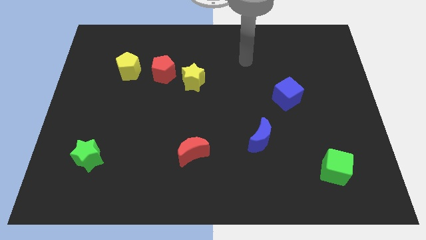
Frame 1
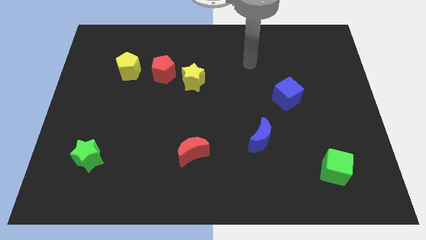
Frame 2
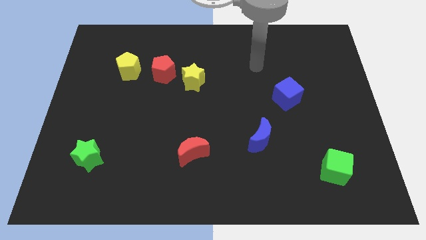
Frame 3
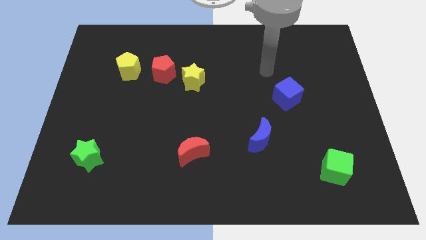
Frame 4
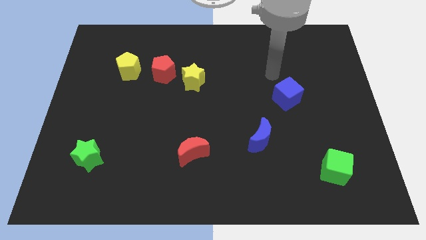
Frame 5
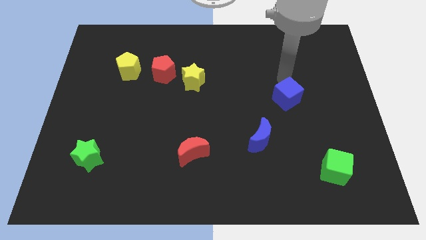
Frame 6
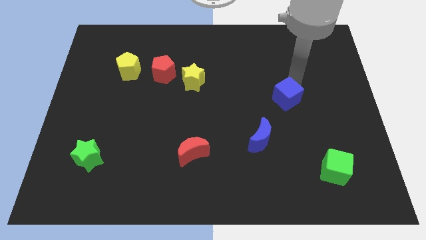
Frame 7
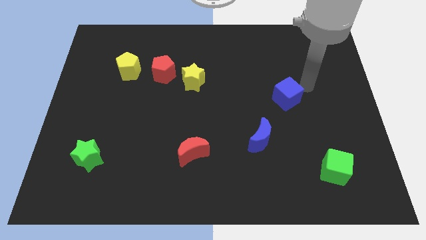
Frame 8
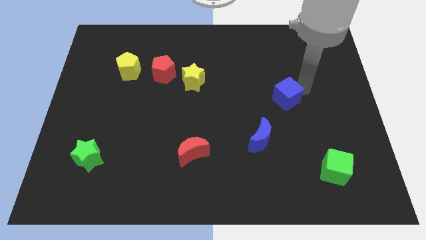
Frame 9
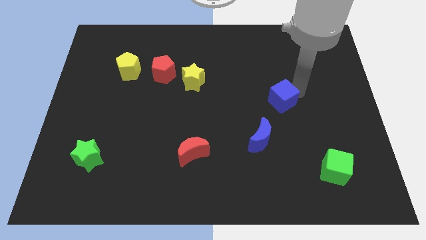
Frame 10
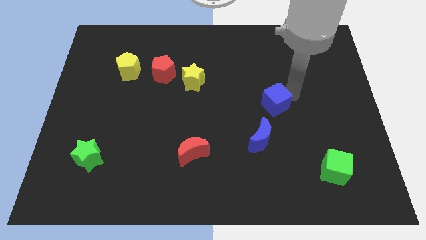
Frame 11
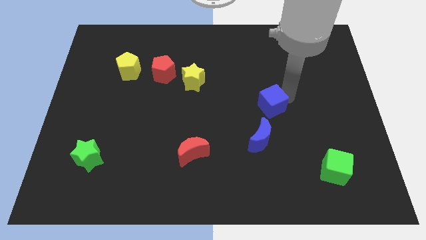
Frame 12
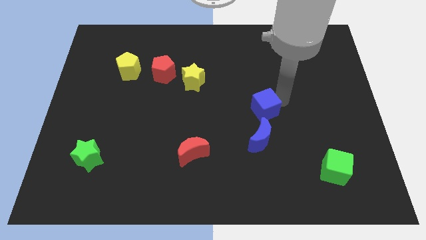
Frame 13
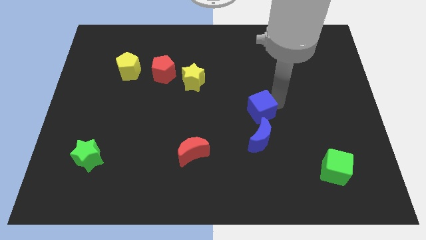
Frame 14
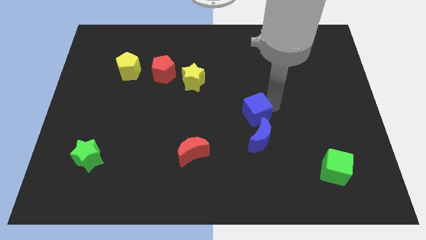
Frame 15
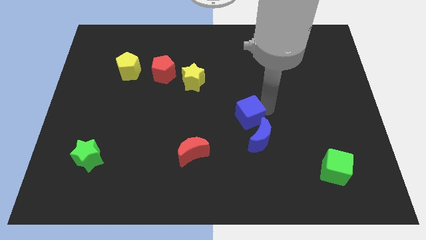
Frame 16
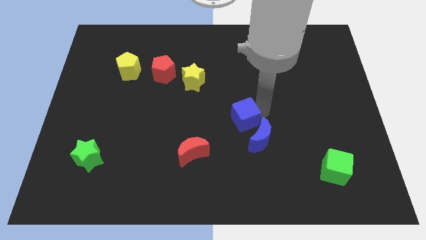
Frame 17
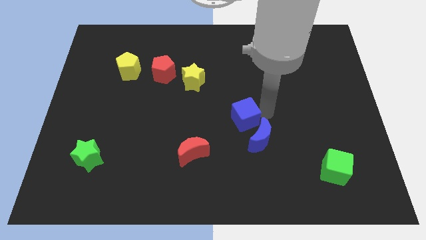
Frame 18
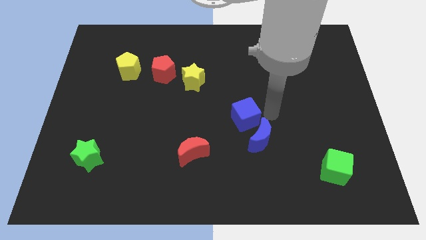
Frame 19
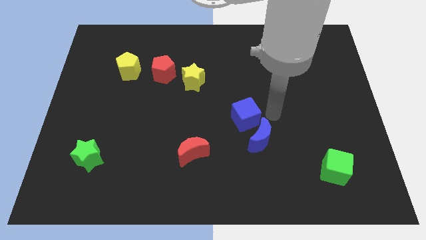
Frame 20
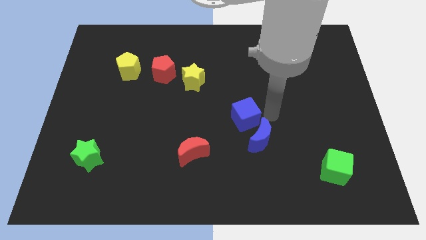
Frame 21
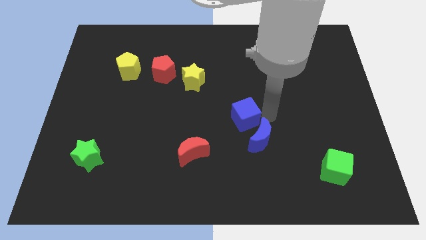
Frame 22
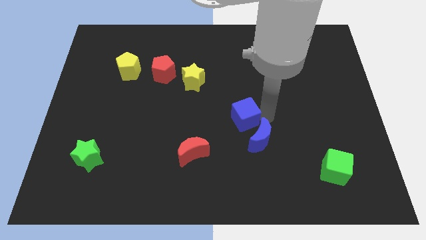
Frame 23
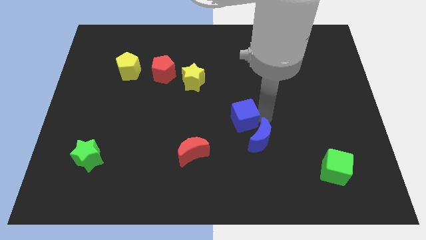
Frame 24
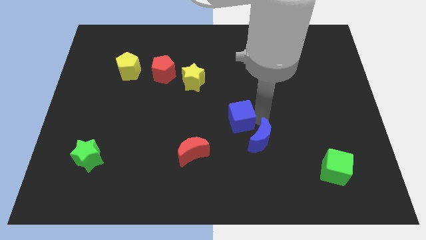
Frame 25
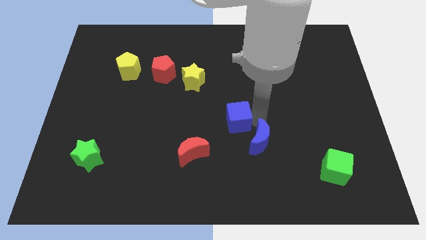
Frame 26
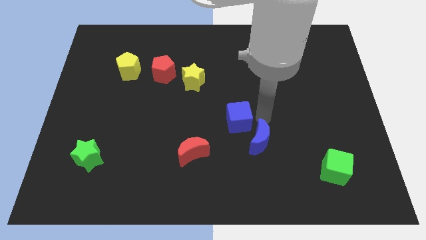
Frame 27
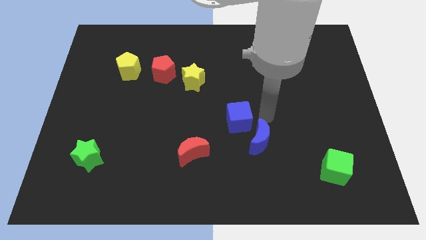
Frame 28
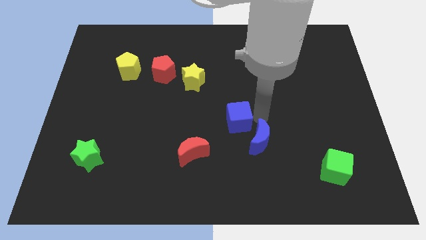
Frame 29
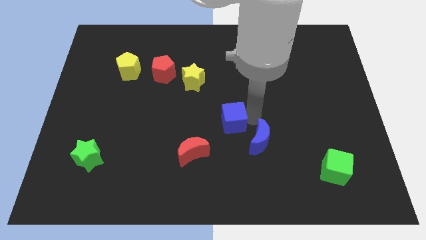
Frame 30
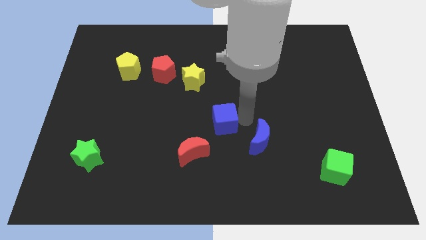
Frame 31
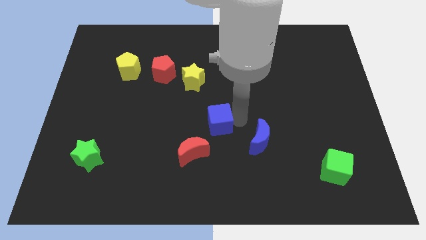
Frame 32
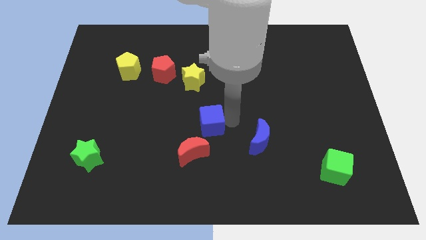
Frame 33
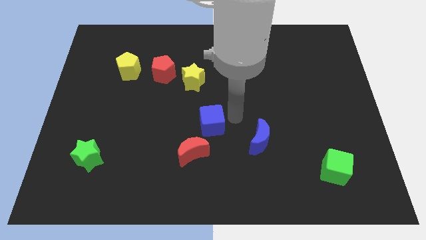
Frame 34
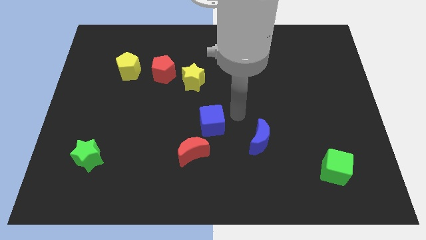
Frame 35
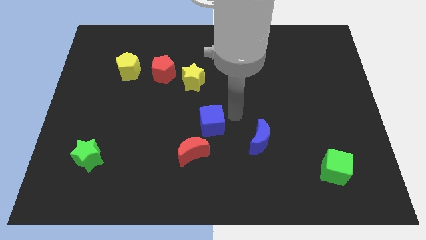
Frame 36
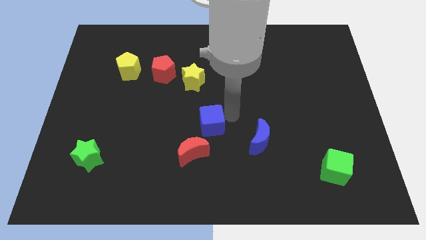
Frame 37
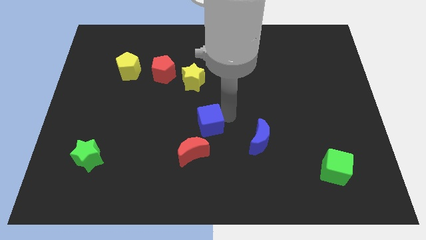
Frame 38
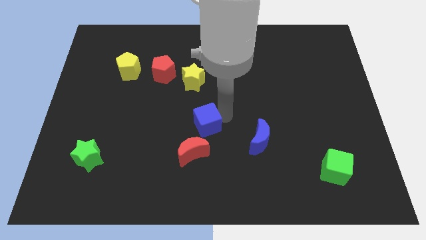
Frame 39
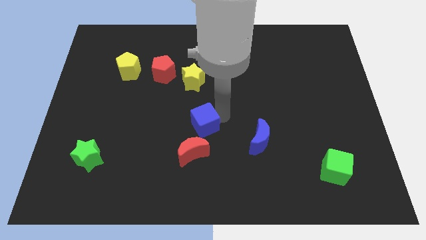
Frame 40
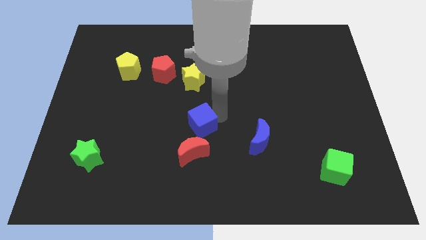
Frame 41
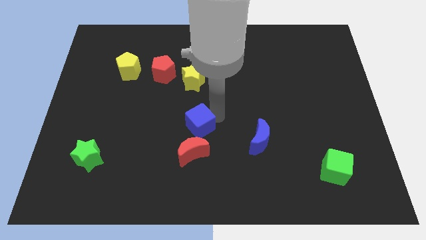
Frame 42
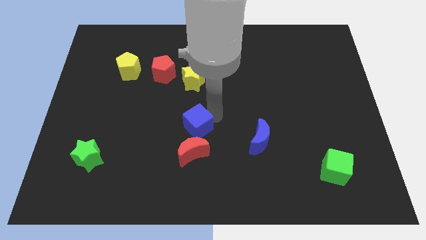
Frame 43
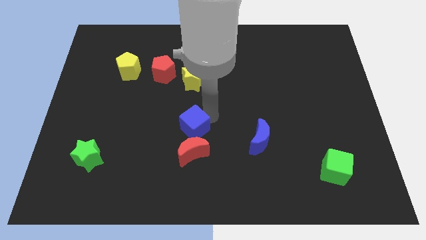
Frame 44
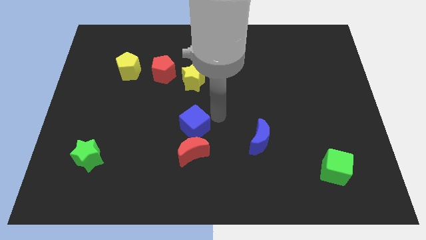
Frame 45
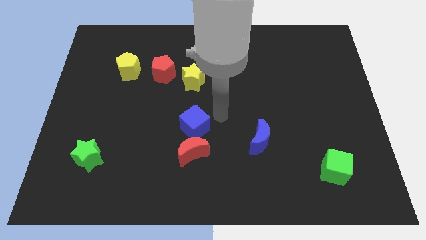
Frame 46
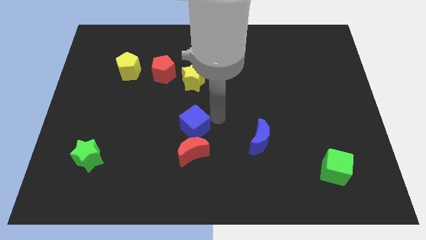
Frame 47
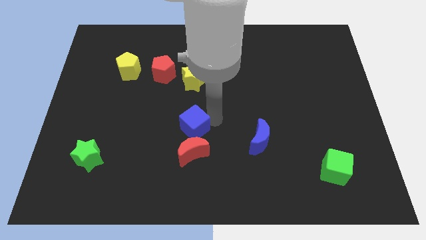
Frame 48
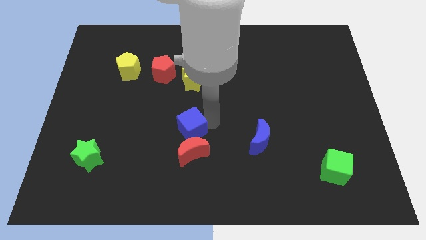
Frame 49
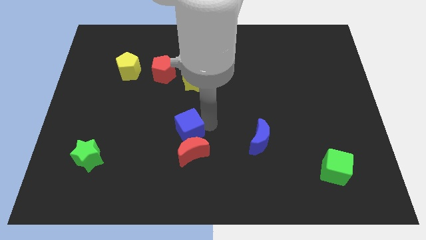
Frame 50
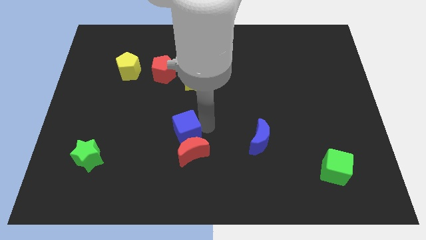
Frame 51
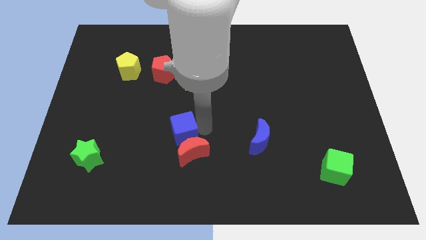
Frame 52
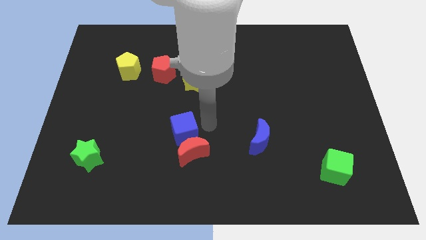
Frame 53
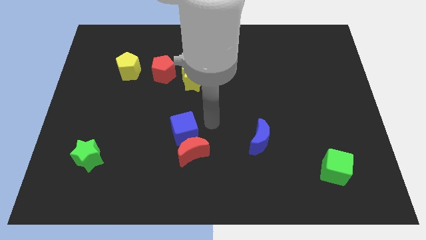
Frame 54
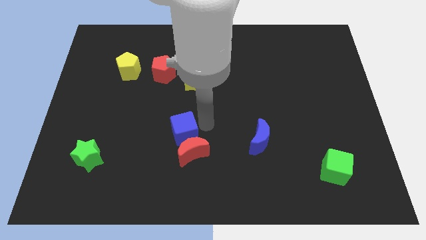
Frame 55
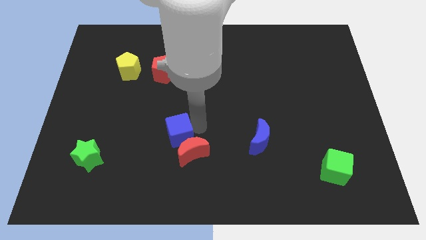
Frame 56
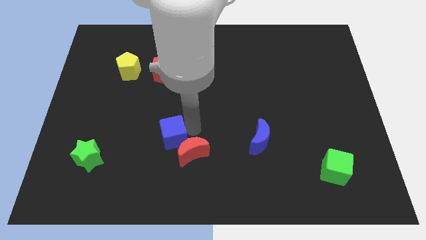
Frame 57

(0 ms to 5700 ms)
push the blue cube to the left of the red moon

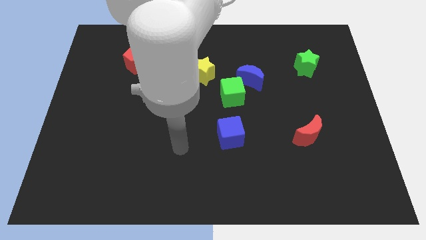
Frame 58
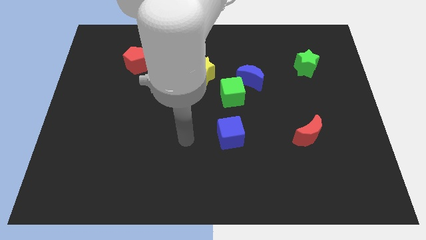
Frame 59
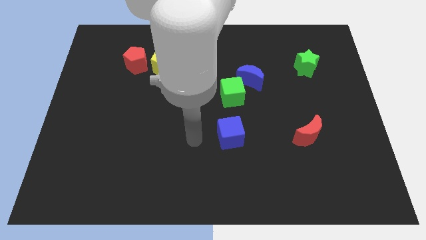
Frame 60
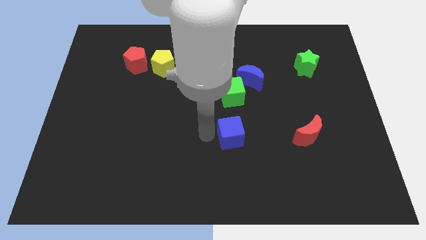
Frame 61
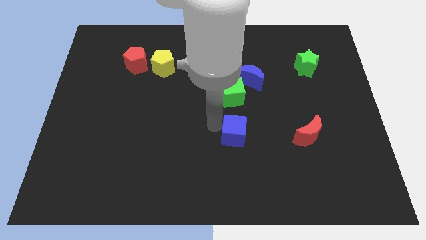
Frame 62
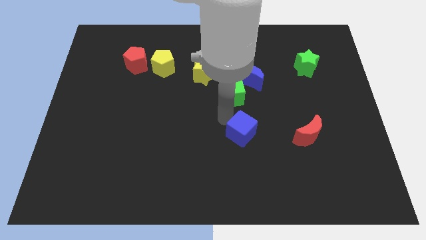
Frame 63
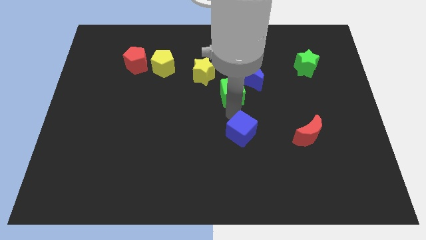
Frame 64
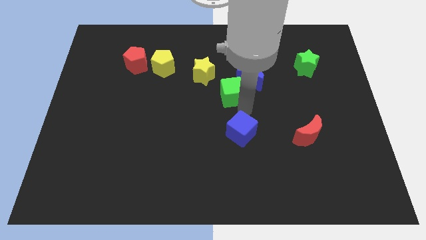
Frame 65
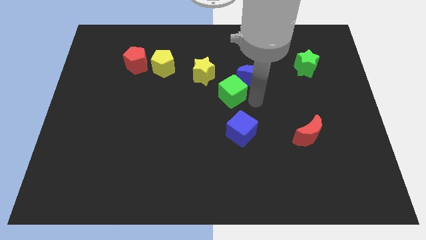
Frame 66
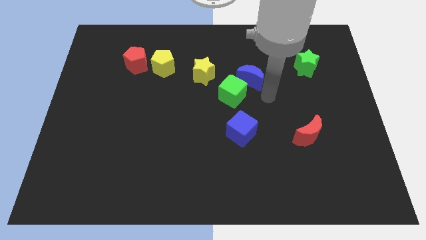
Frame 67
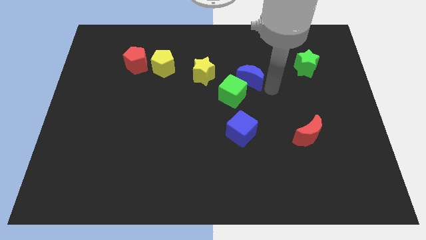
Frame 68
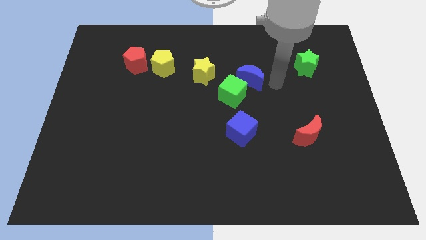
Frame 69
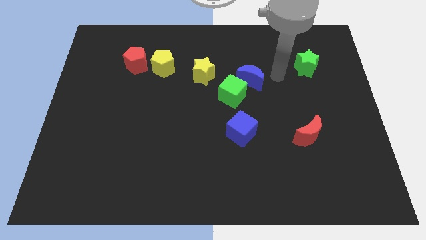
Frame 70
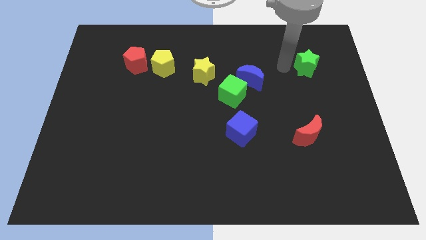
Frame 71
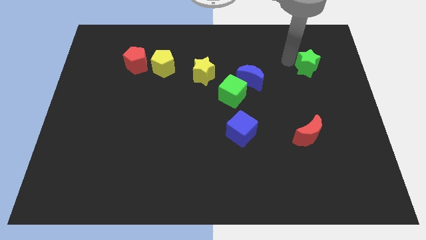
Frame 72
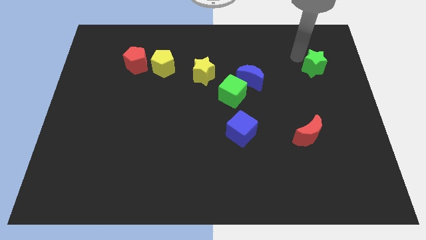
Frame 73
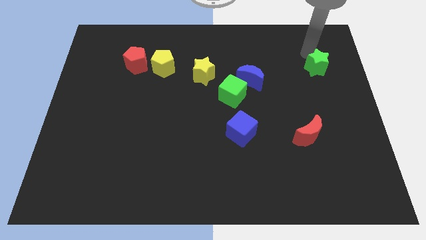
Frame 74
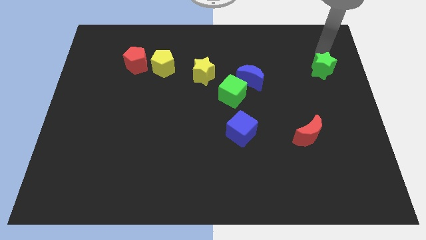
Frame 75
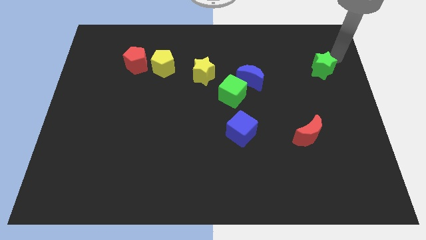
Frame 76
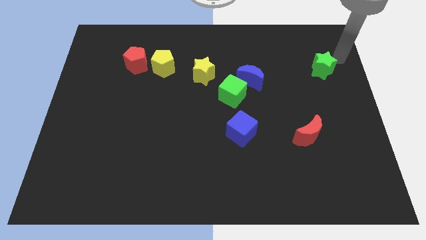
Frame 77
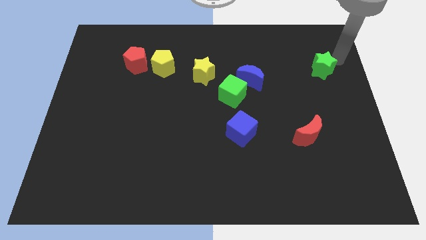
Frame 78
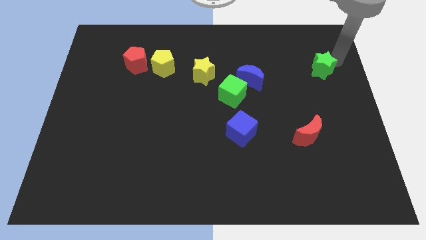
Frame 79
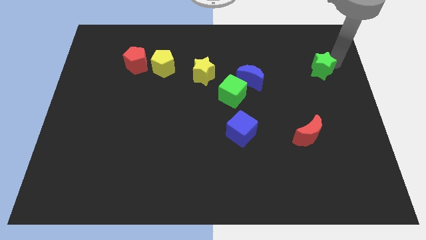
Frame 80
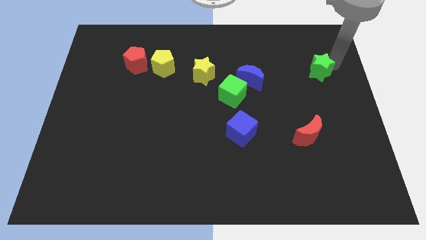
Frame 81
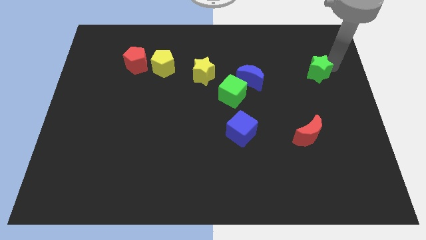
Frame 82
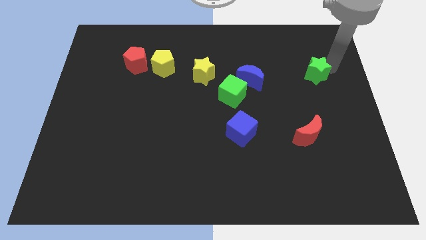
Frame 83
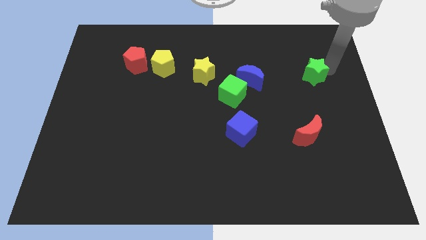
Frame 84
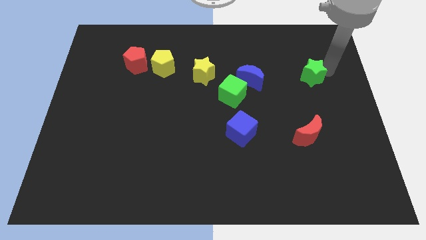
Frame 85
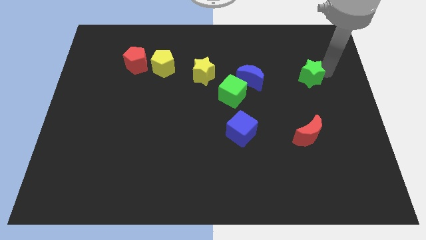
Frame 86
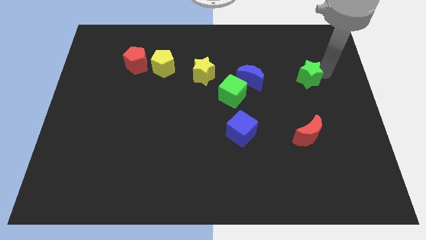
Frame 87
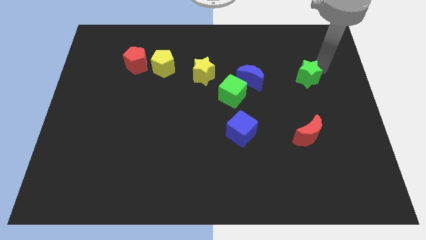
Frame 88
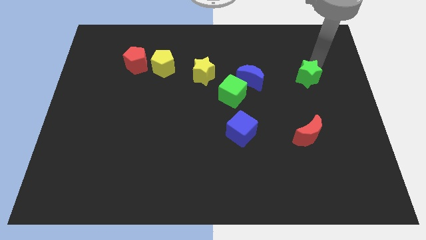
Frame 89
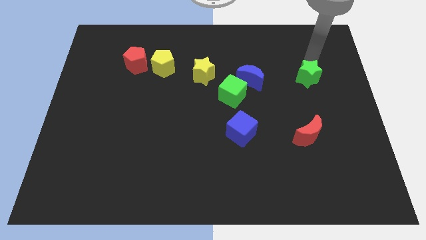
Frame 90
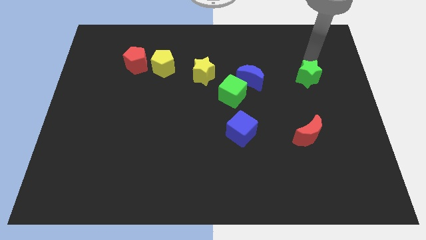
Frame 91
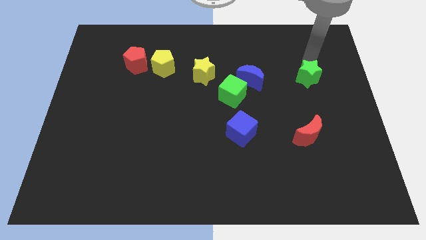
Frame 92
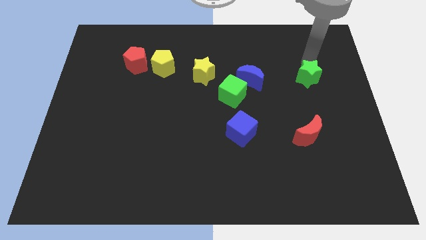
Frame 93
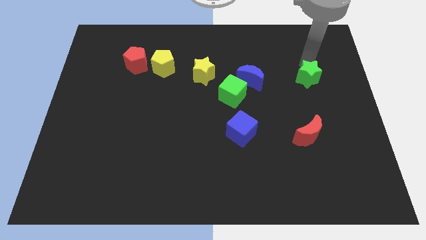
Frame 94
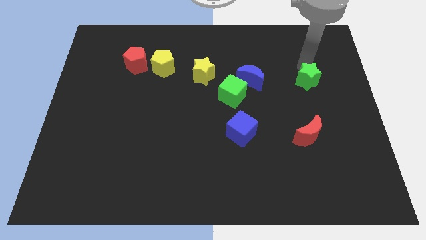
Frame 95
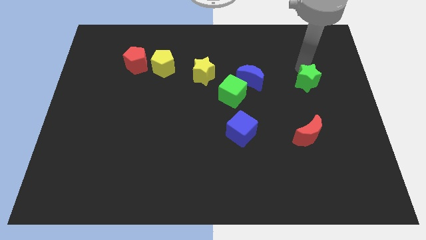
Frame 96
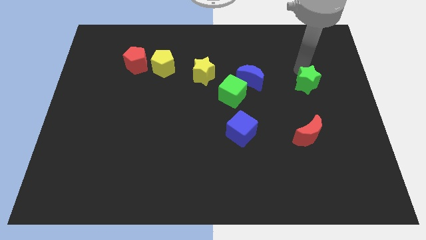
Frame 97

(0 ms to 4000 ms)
slide the green star to the top of the red moon
